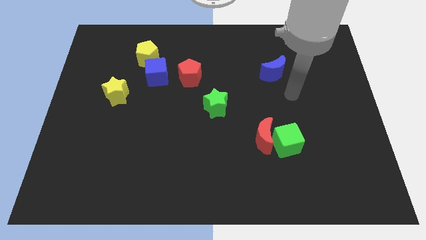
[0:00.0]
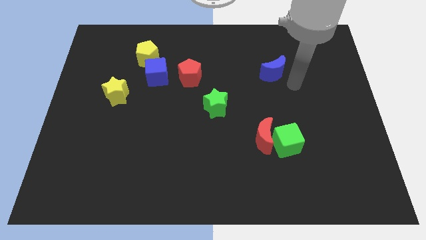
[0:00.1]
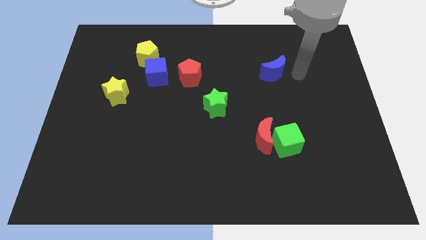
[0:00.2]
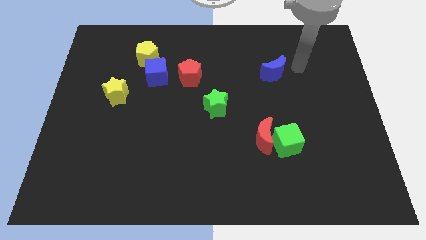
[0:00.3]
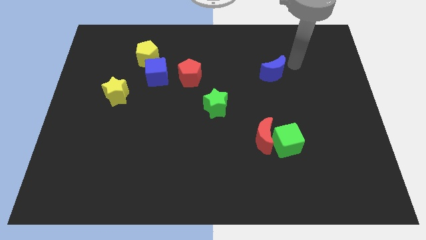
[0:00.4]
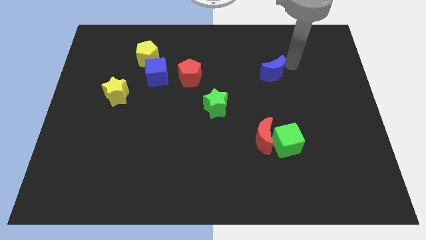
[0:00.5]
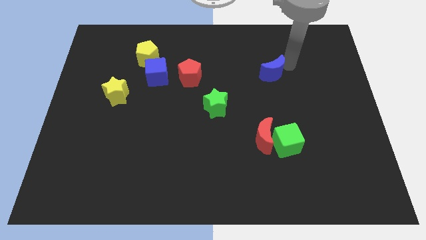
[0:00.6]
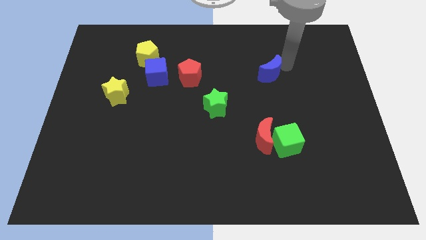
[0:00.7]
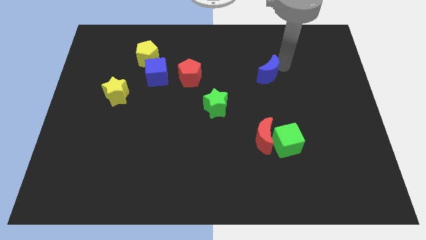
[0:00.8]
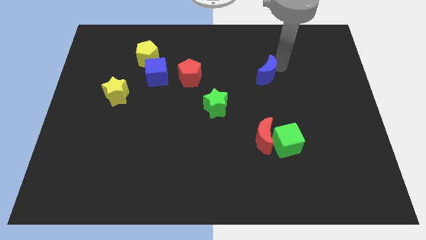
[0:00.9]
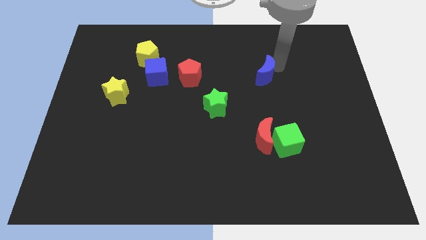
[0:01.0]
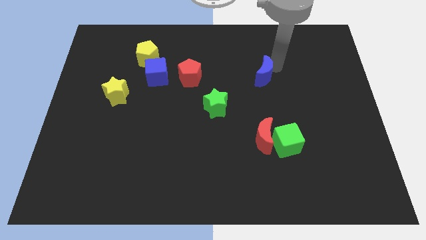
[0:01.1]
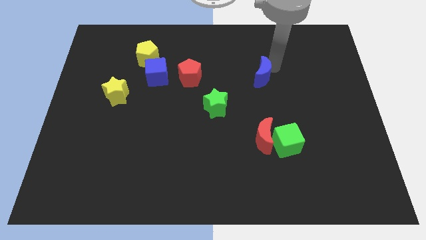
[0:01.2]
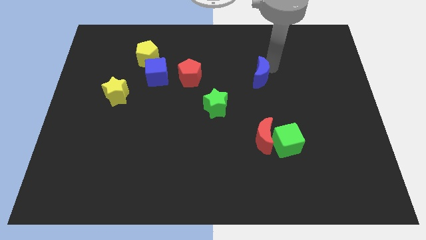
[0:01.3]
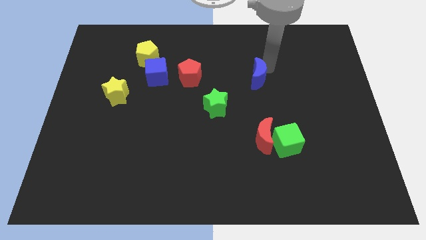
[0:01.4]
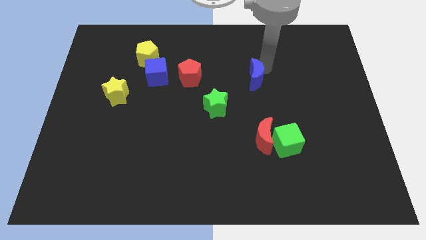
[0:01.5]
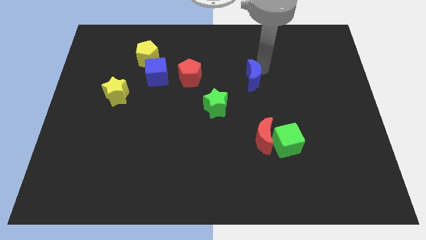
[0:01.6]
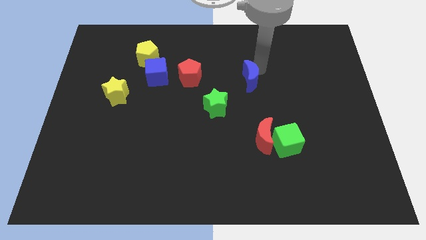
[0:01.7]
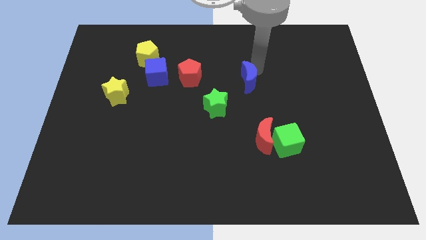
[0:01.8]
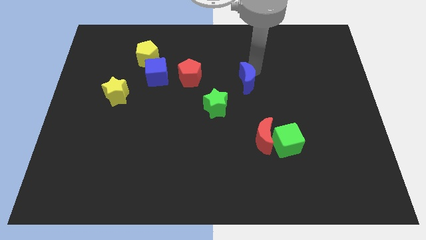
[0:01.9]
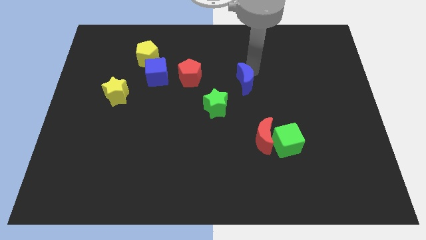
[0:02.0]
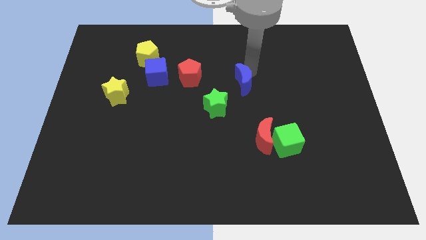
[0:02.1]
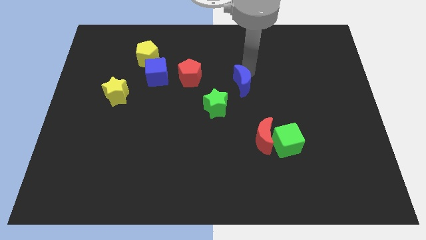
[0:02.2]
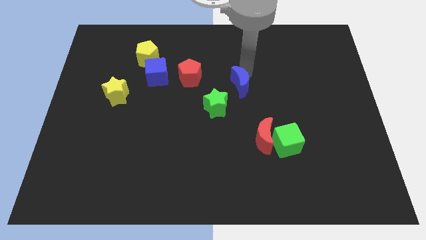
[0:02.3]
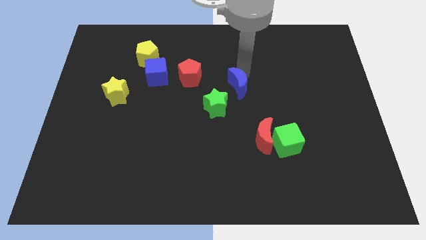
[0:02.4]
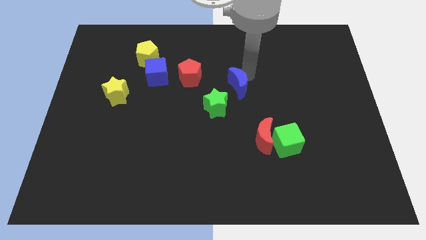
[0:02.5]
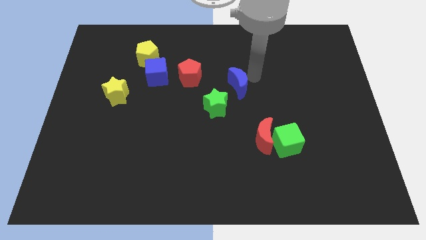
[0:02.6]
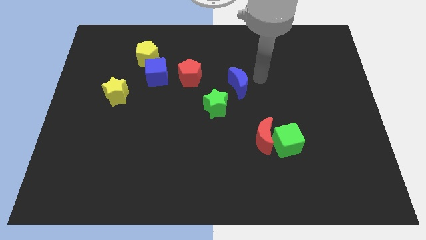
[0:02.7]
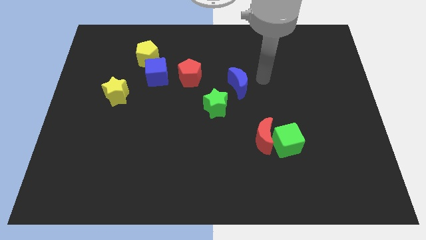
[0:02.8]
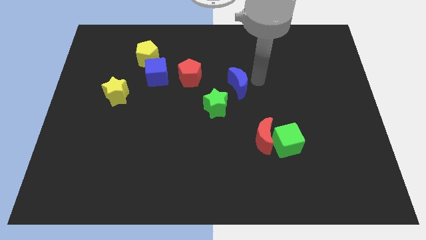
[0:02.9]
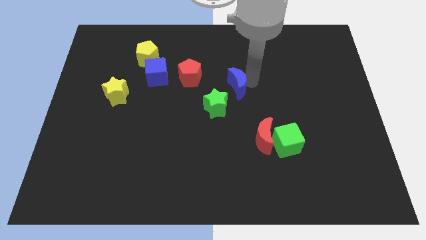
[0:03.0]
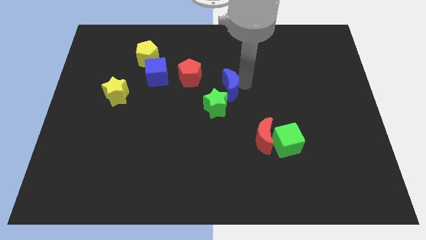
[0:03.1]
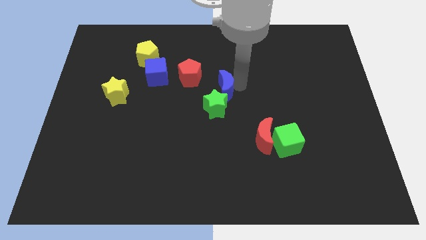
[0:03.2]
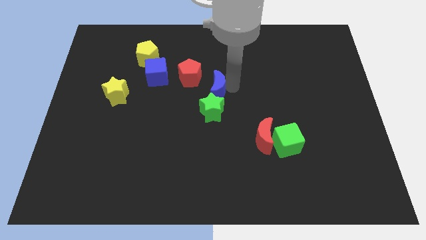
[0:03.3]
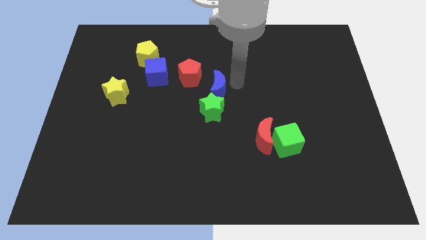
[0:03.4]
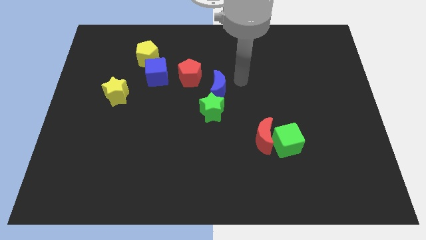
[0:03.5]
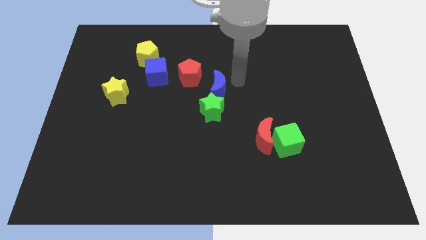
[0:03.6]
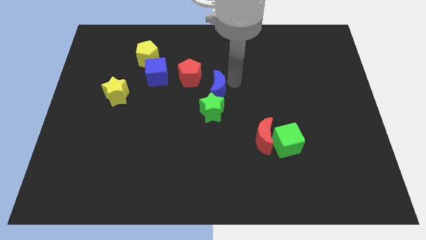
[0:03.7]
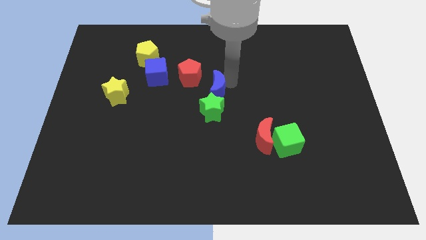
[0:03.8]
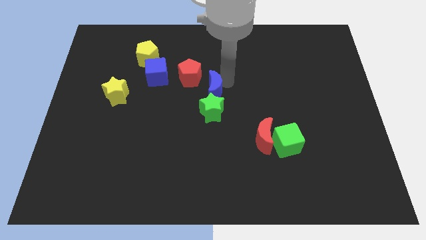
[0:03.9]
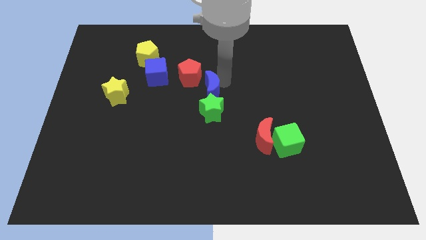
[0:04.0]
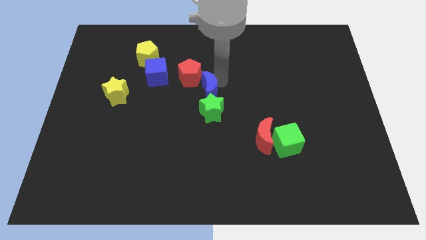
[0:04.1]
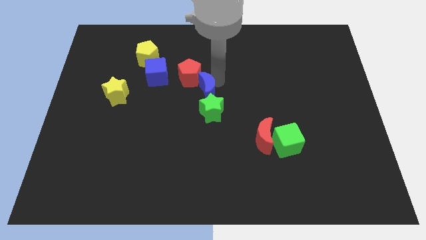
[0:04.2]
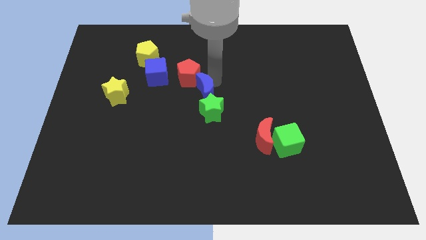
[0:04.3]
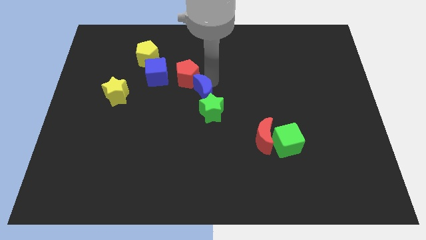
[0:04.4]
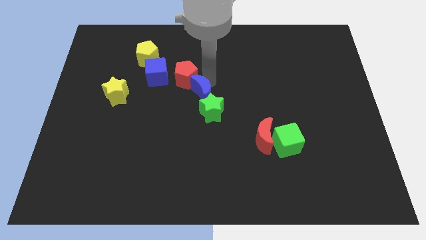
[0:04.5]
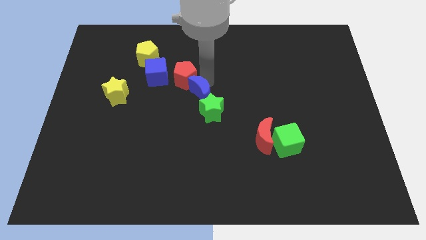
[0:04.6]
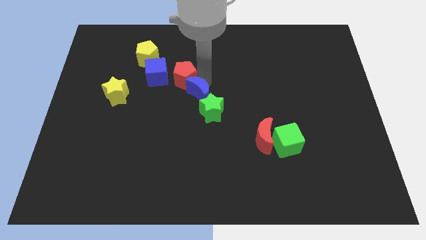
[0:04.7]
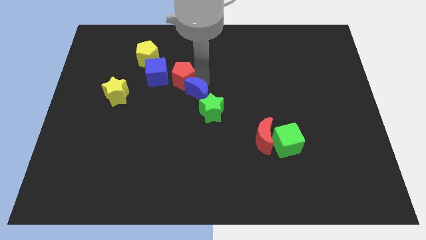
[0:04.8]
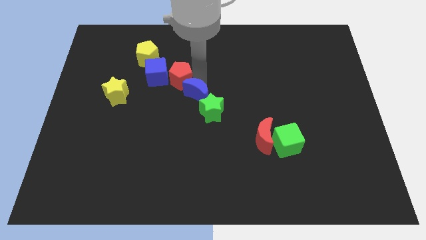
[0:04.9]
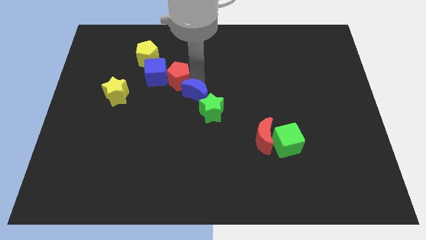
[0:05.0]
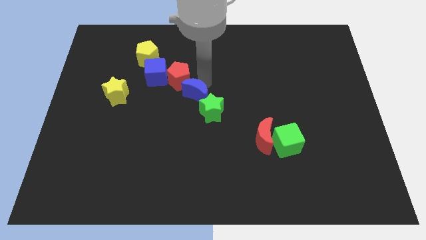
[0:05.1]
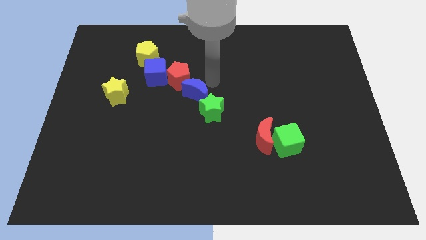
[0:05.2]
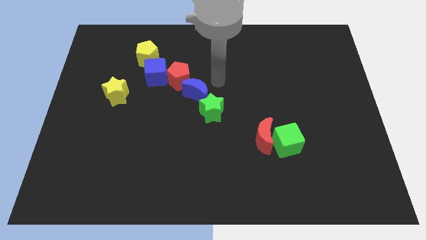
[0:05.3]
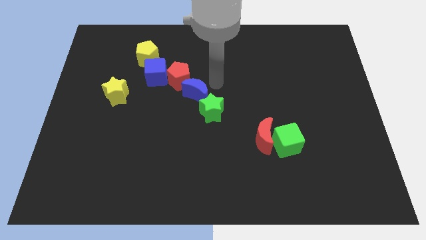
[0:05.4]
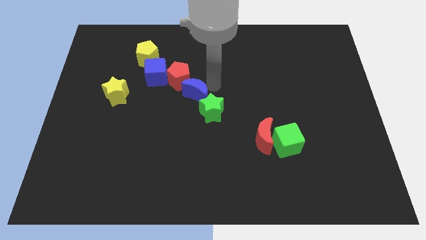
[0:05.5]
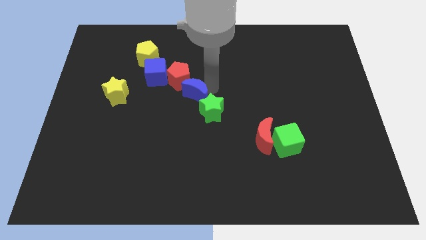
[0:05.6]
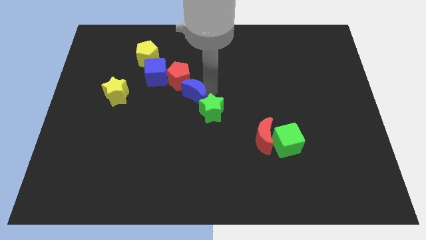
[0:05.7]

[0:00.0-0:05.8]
push the blue moon left of the green star

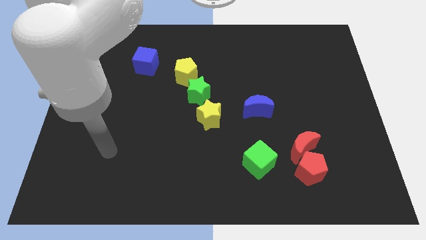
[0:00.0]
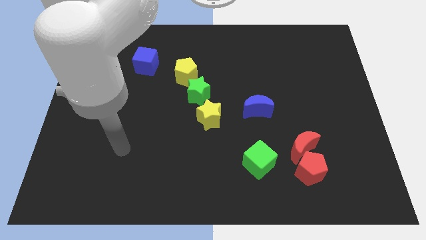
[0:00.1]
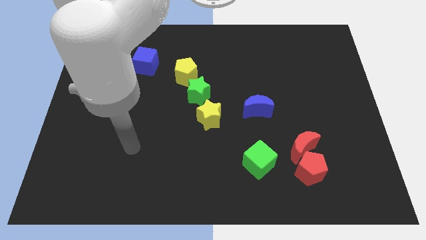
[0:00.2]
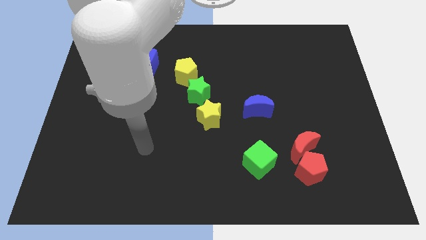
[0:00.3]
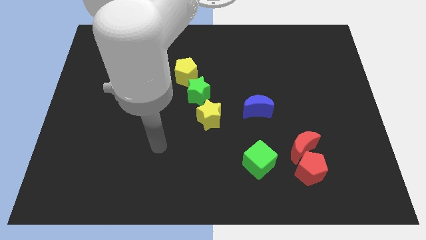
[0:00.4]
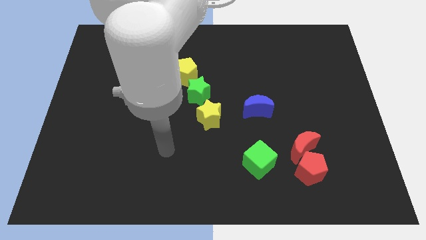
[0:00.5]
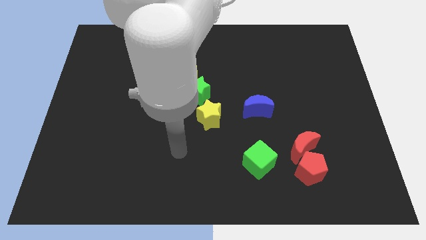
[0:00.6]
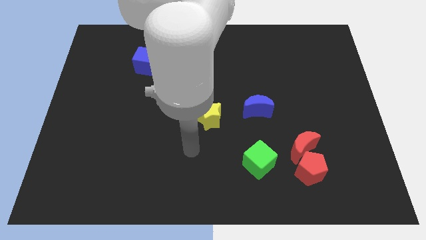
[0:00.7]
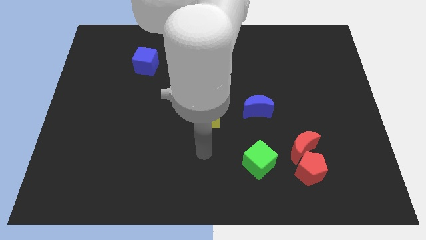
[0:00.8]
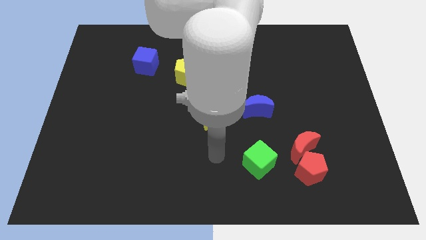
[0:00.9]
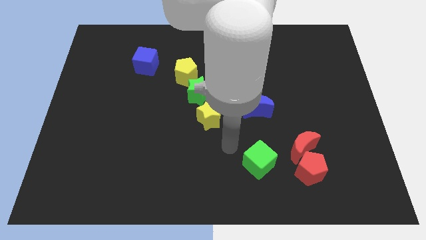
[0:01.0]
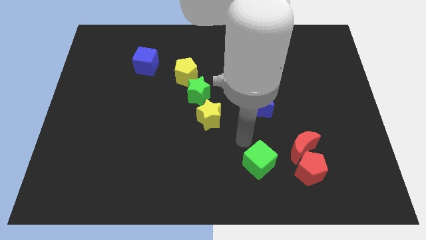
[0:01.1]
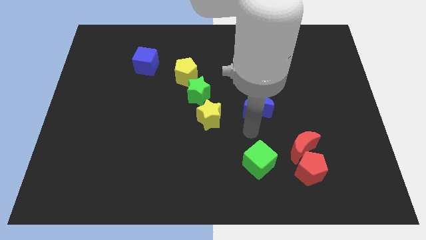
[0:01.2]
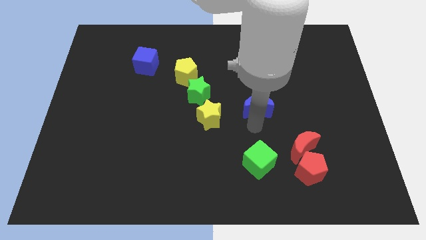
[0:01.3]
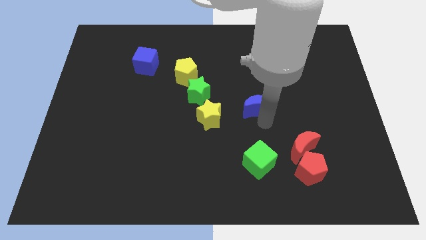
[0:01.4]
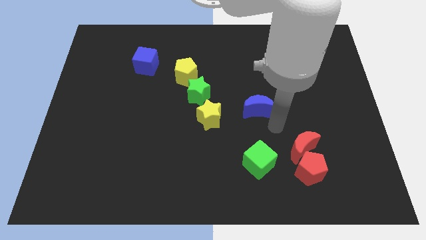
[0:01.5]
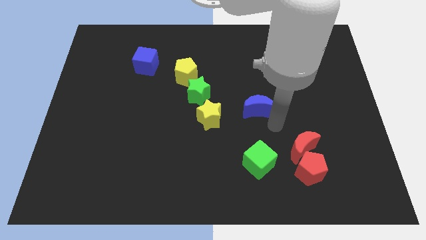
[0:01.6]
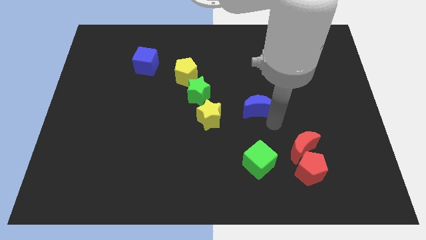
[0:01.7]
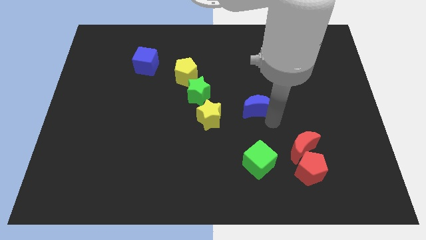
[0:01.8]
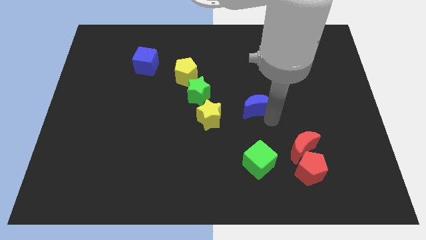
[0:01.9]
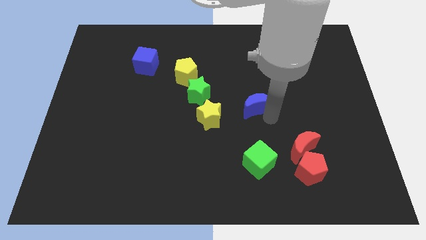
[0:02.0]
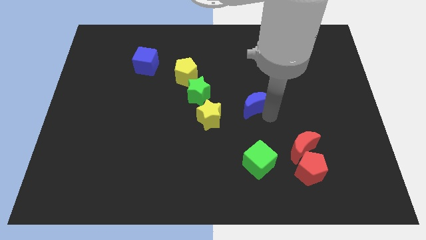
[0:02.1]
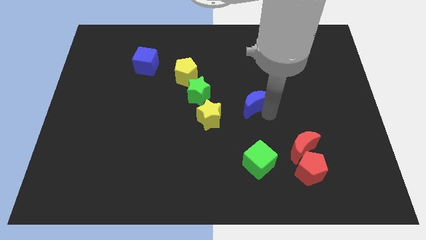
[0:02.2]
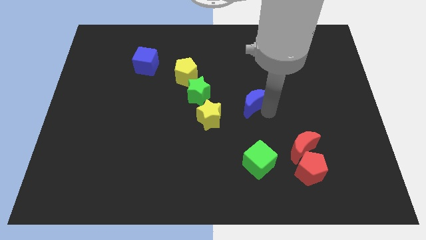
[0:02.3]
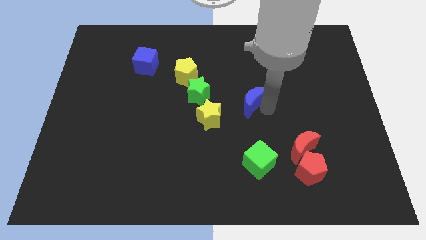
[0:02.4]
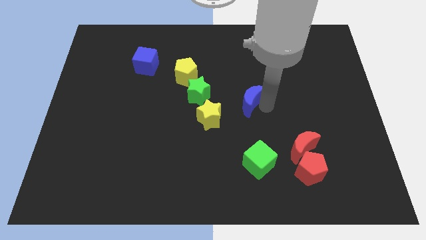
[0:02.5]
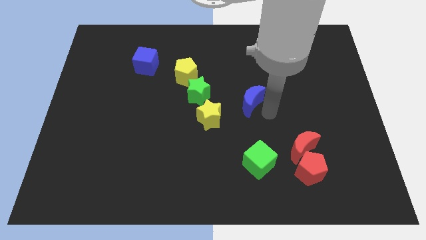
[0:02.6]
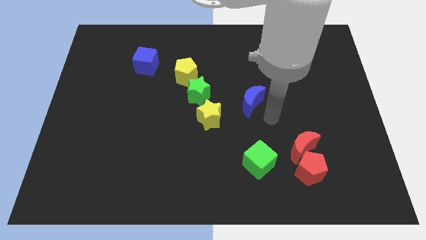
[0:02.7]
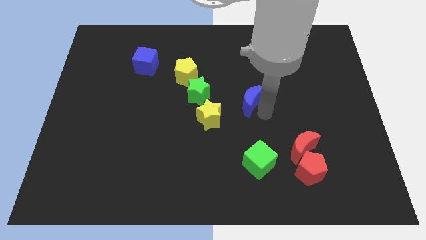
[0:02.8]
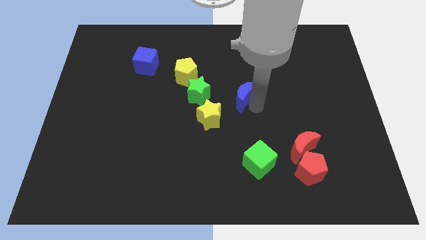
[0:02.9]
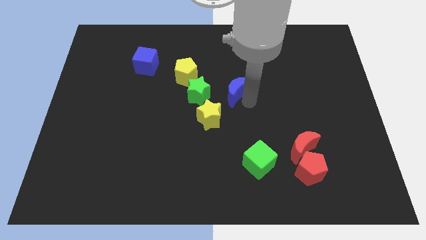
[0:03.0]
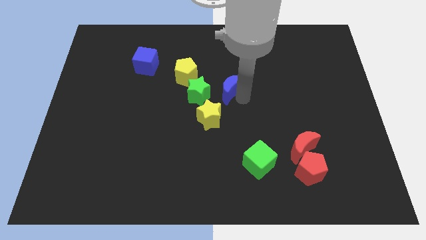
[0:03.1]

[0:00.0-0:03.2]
put the blue moon to the top right side of the green star
